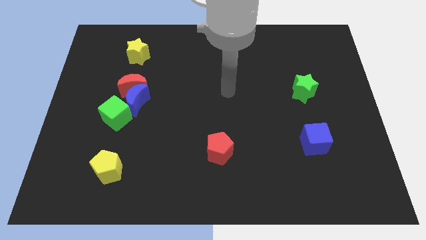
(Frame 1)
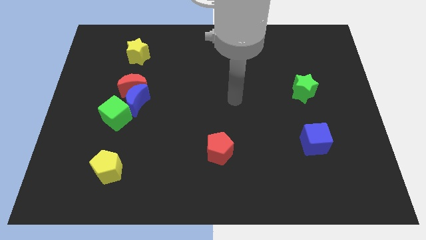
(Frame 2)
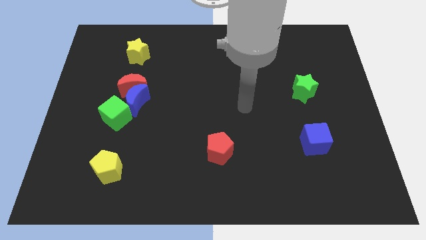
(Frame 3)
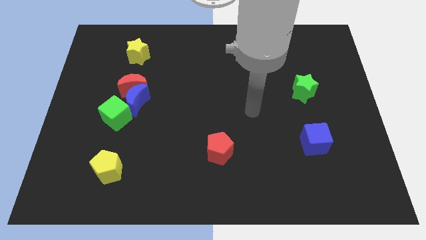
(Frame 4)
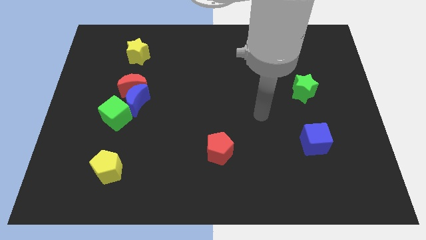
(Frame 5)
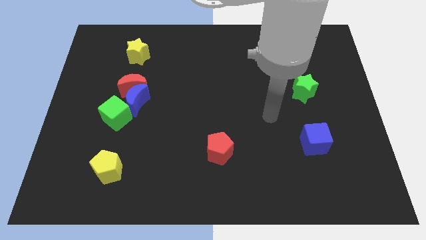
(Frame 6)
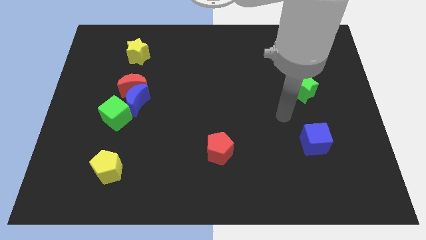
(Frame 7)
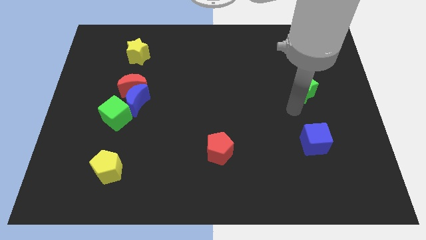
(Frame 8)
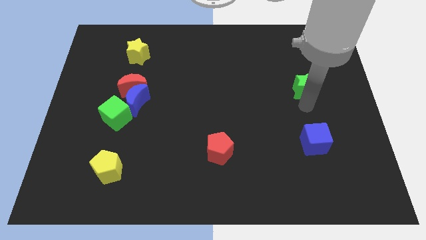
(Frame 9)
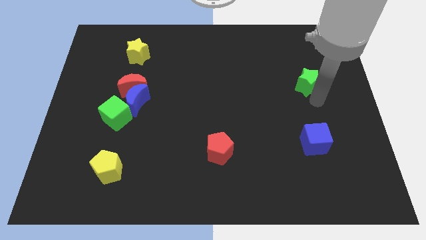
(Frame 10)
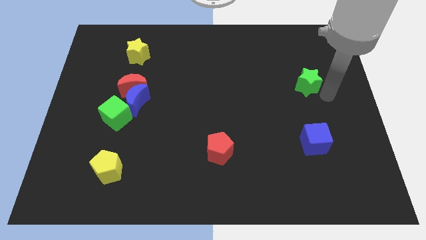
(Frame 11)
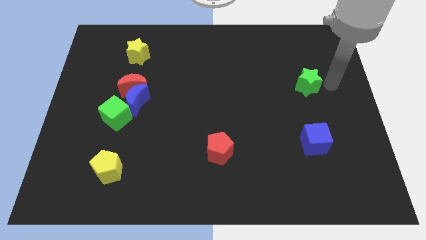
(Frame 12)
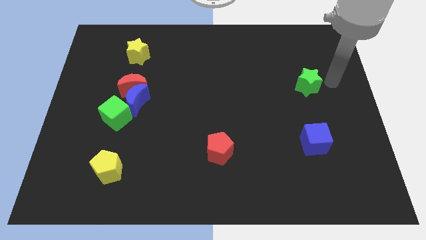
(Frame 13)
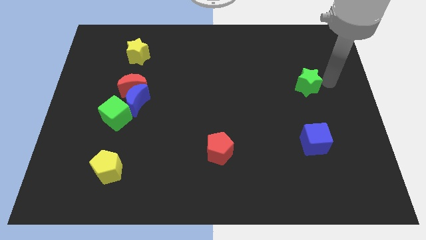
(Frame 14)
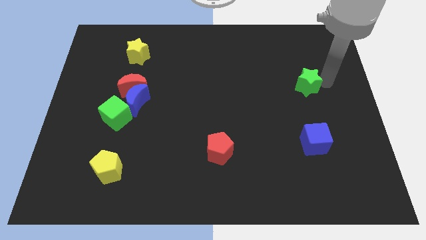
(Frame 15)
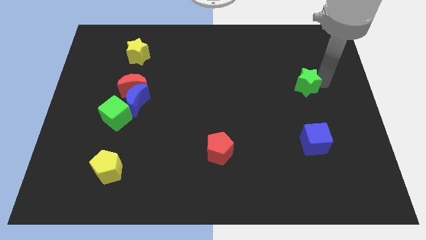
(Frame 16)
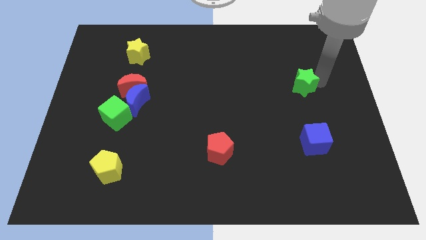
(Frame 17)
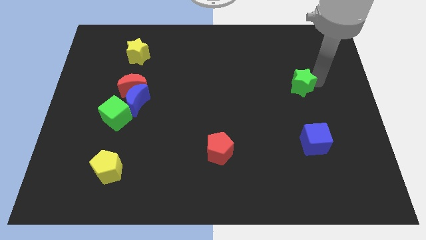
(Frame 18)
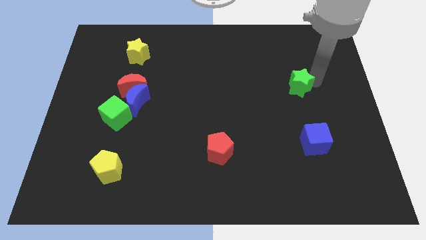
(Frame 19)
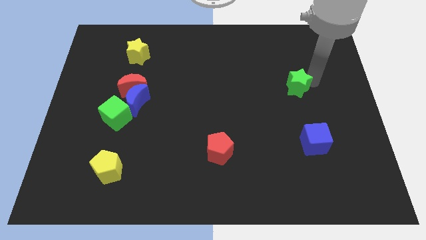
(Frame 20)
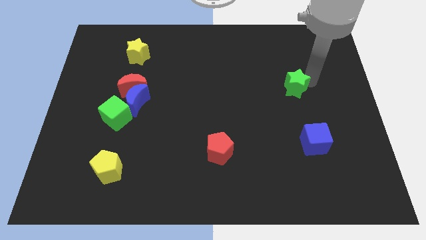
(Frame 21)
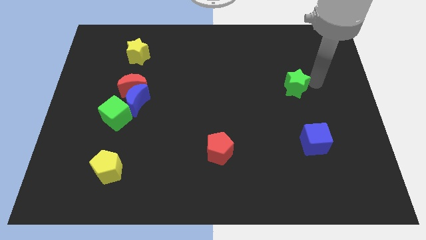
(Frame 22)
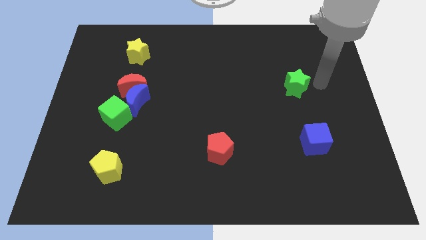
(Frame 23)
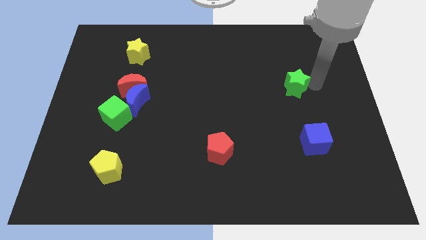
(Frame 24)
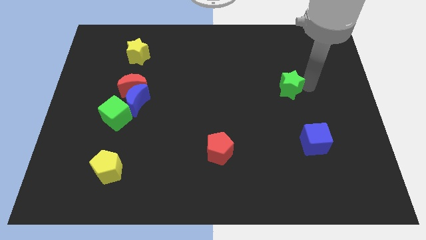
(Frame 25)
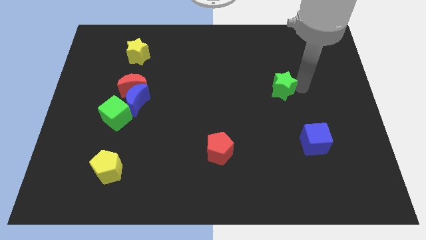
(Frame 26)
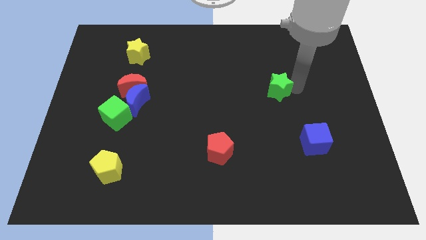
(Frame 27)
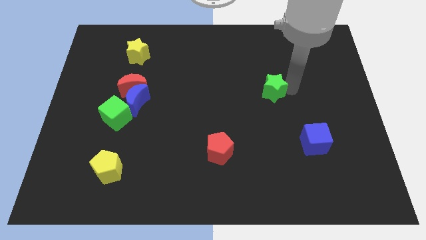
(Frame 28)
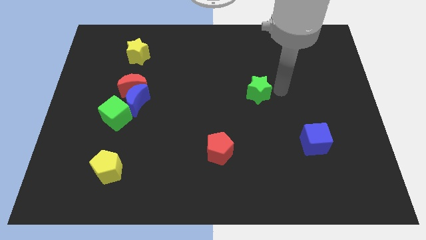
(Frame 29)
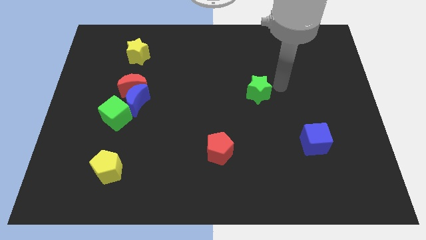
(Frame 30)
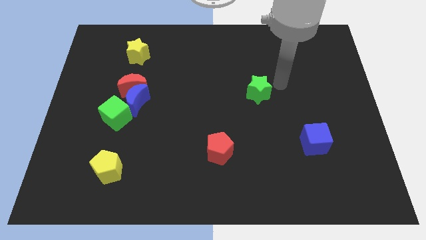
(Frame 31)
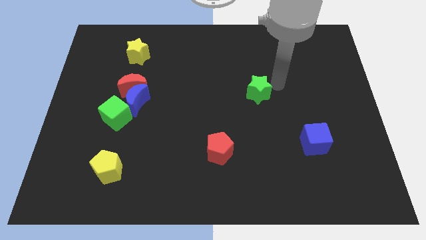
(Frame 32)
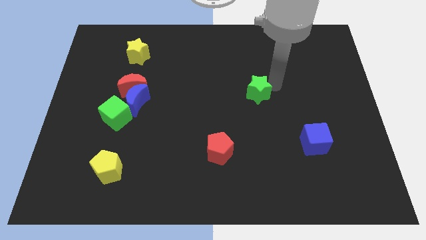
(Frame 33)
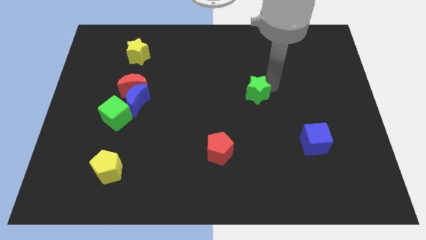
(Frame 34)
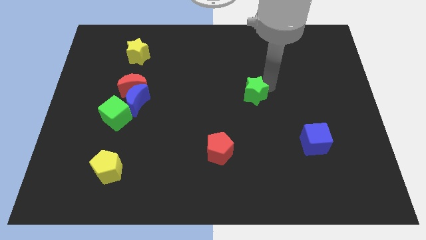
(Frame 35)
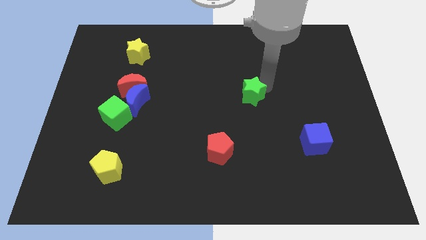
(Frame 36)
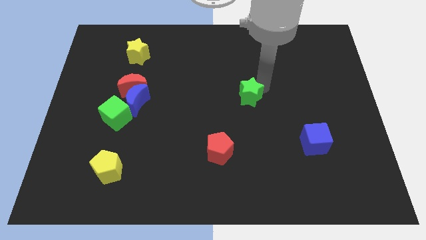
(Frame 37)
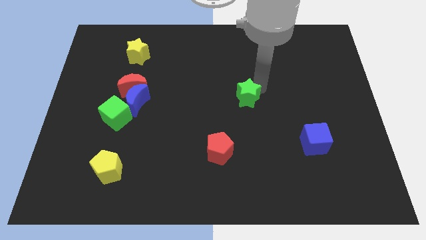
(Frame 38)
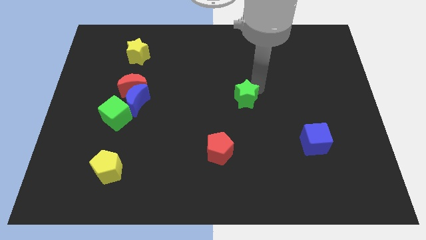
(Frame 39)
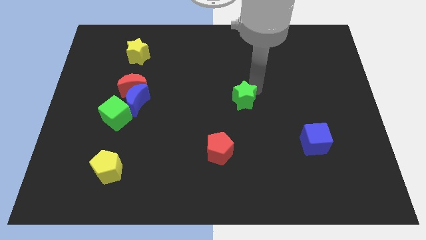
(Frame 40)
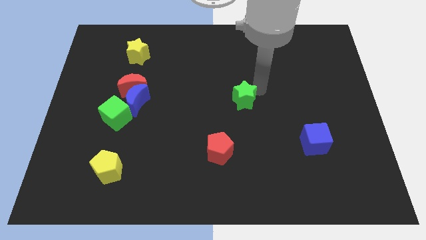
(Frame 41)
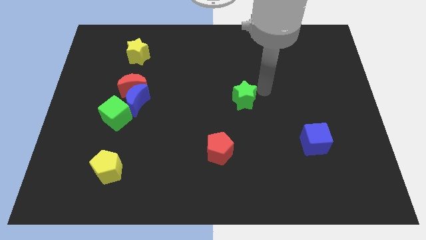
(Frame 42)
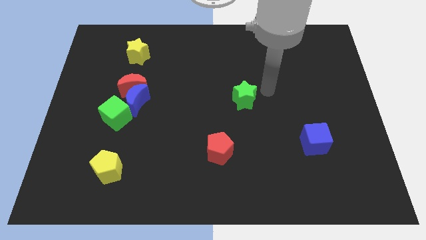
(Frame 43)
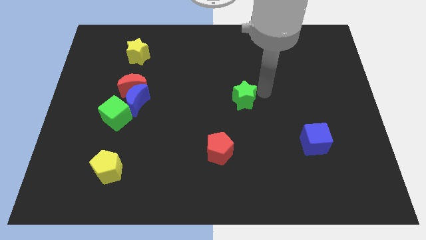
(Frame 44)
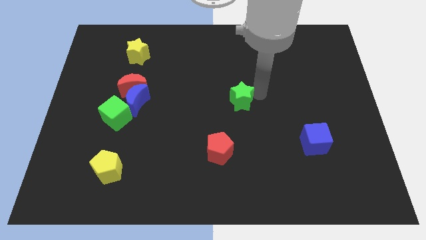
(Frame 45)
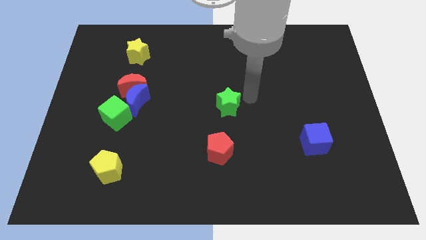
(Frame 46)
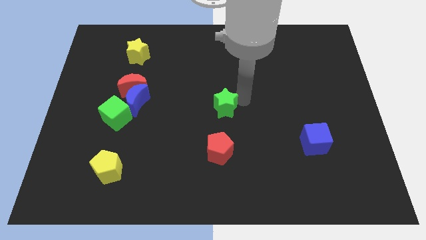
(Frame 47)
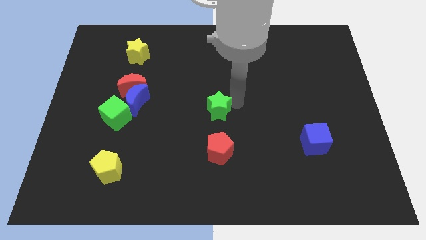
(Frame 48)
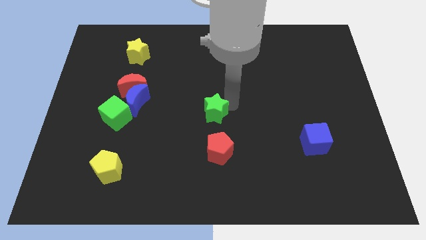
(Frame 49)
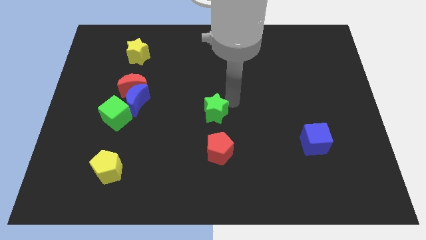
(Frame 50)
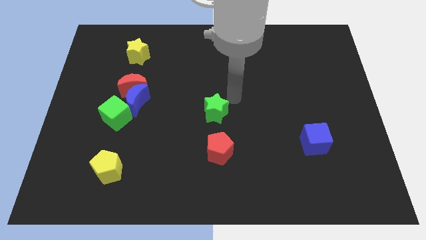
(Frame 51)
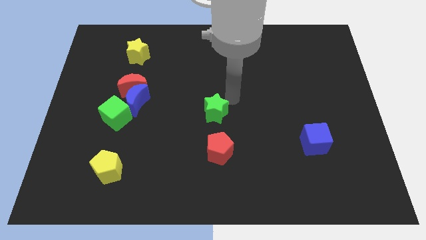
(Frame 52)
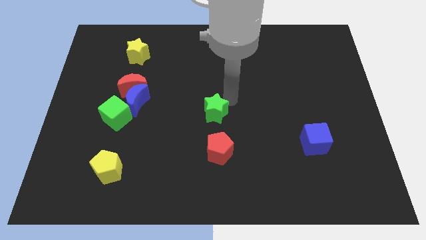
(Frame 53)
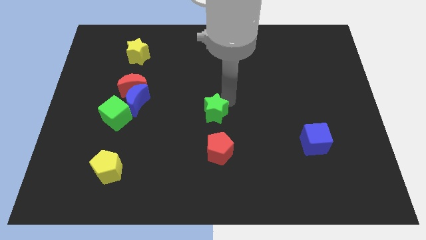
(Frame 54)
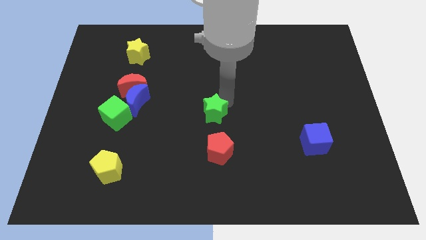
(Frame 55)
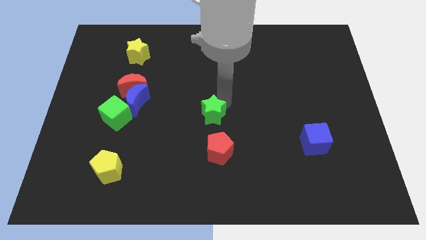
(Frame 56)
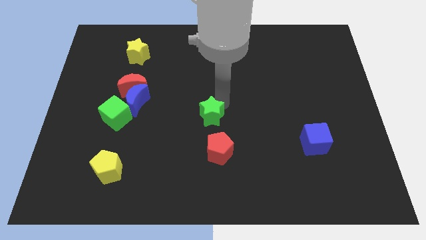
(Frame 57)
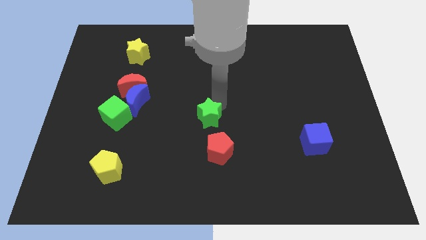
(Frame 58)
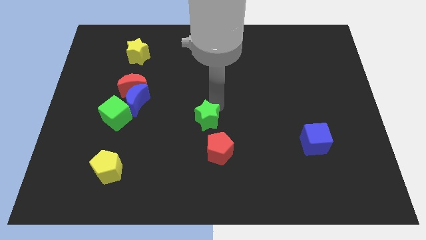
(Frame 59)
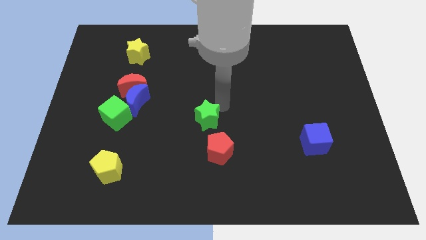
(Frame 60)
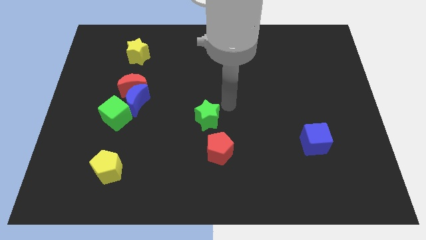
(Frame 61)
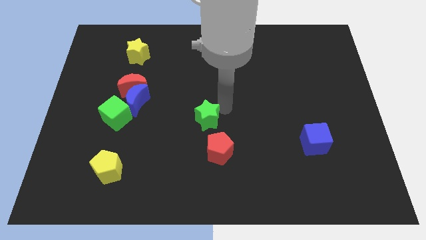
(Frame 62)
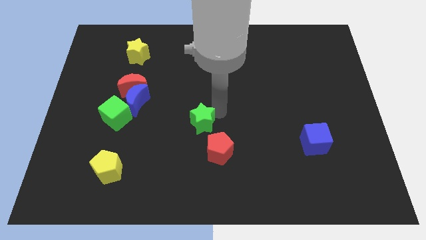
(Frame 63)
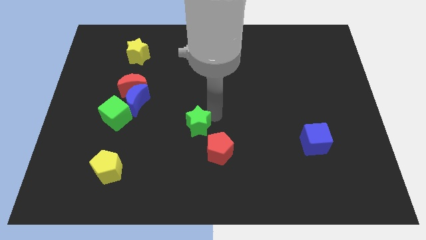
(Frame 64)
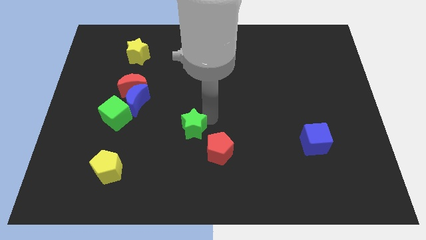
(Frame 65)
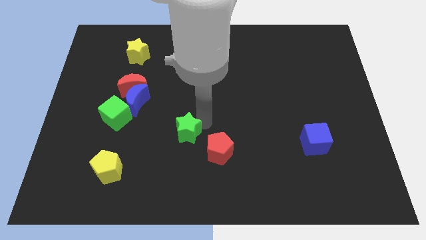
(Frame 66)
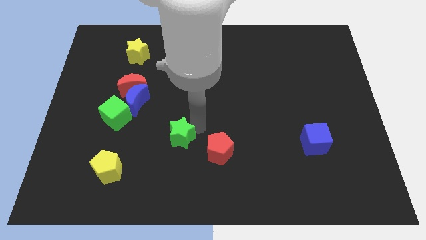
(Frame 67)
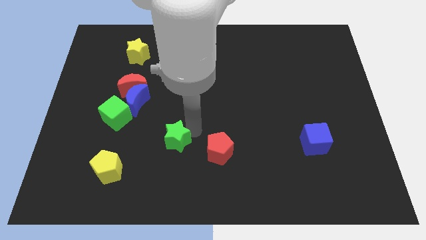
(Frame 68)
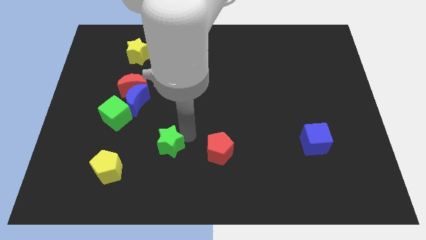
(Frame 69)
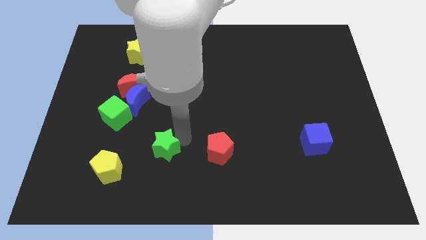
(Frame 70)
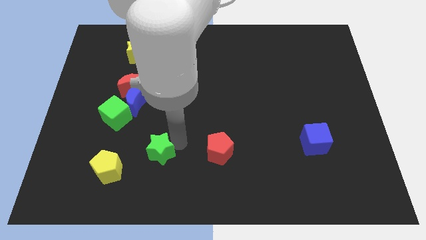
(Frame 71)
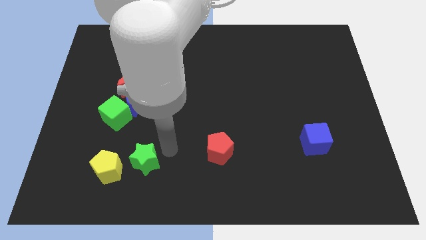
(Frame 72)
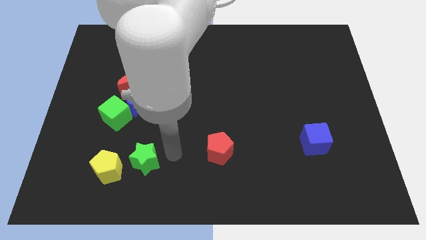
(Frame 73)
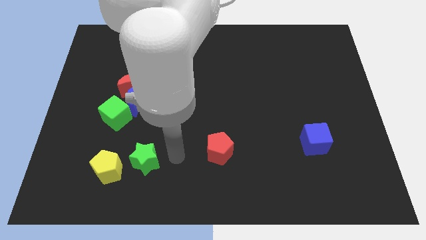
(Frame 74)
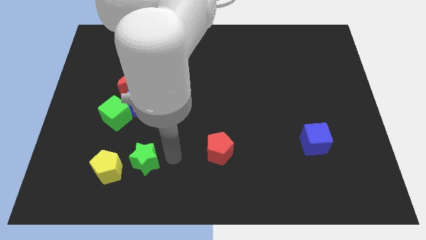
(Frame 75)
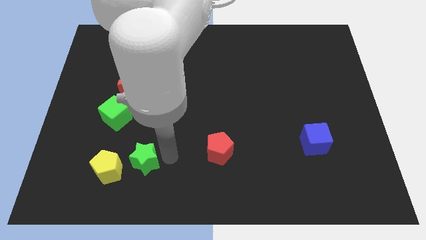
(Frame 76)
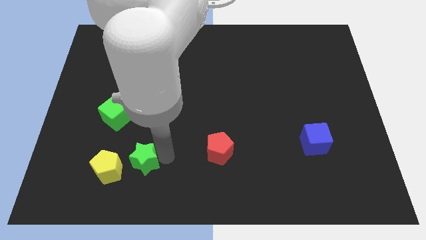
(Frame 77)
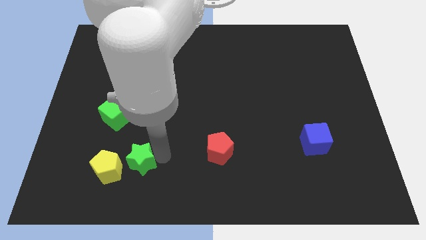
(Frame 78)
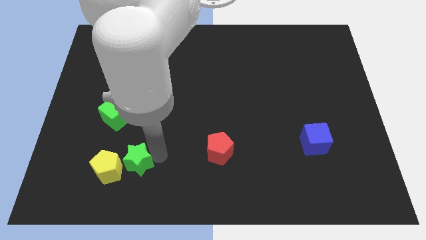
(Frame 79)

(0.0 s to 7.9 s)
push the green star next to the yellow pentagon

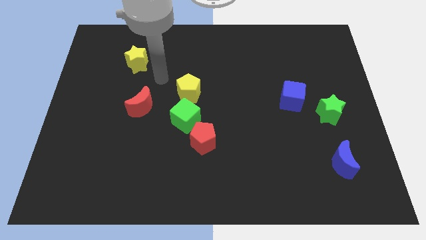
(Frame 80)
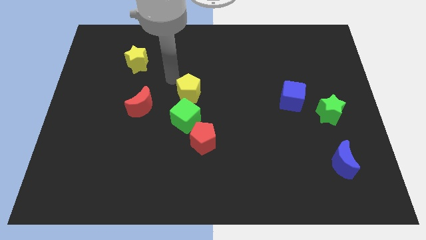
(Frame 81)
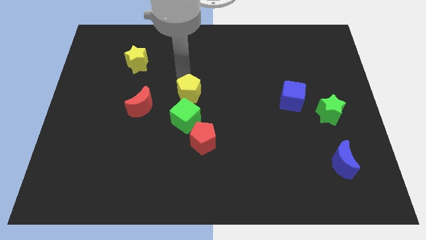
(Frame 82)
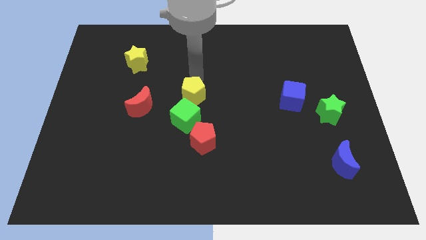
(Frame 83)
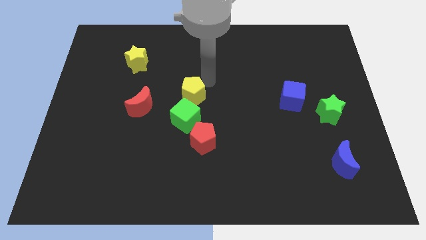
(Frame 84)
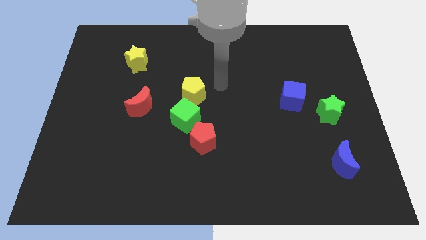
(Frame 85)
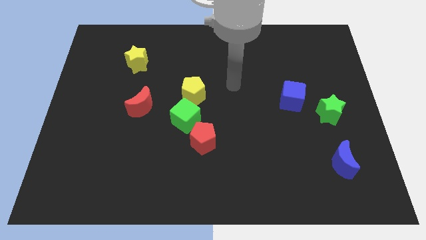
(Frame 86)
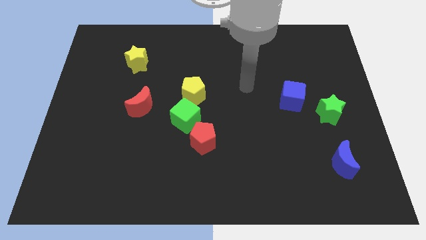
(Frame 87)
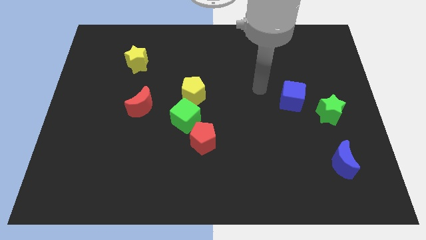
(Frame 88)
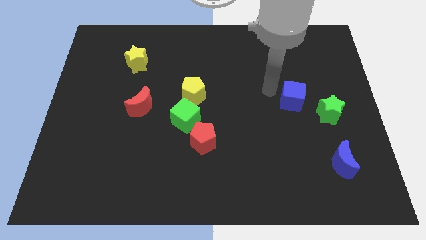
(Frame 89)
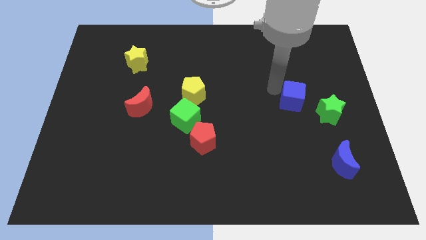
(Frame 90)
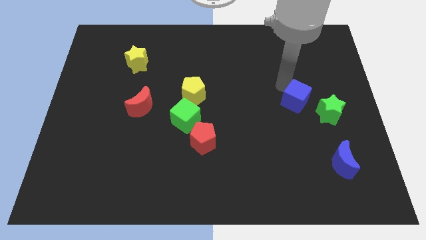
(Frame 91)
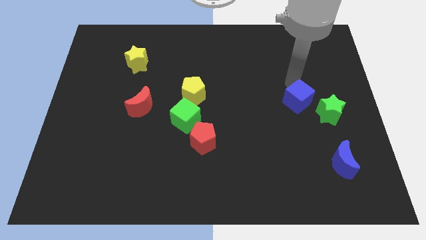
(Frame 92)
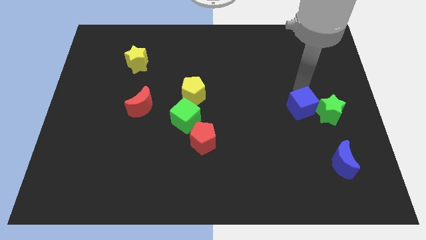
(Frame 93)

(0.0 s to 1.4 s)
put the green star next to the blue cube
